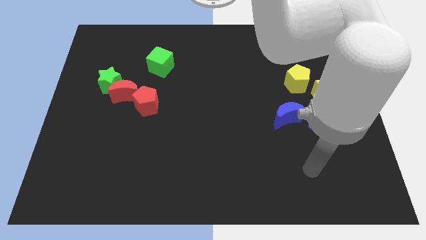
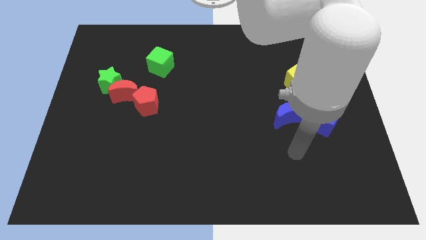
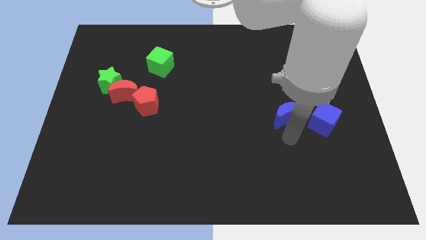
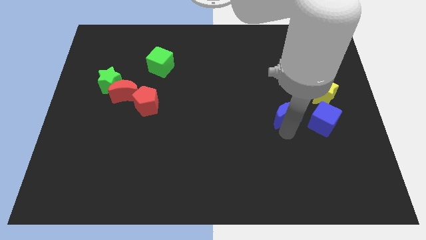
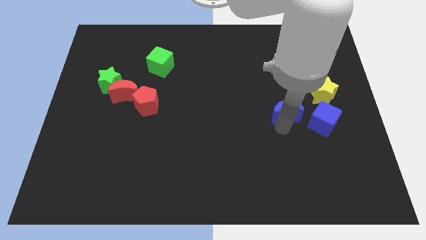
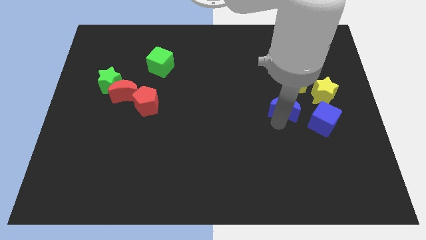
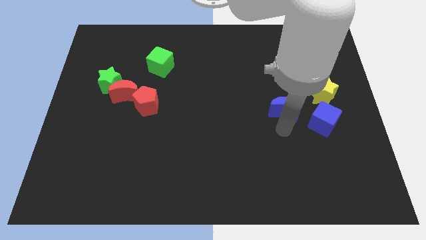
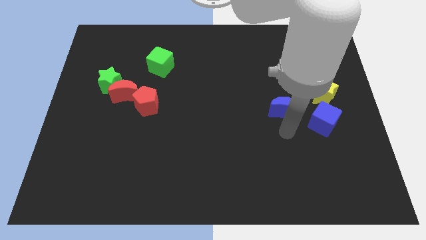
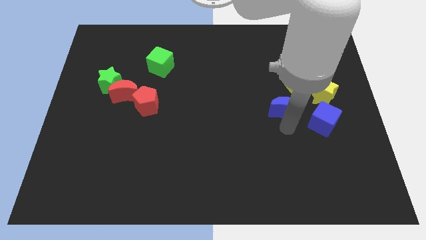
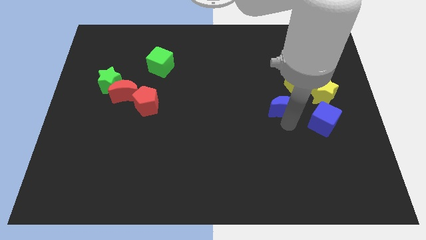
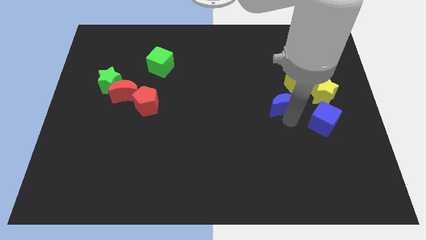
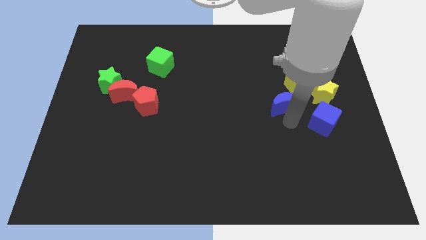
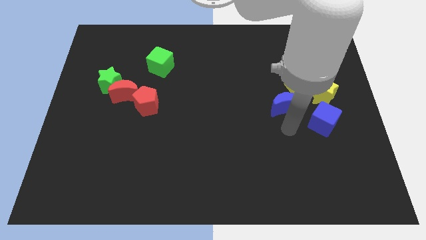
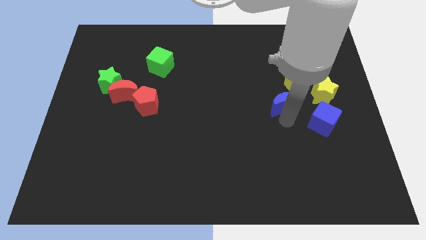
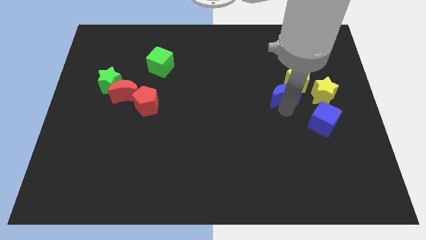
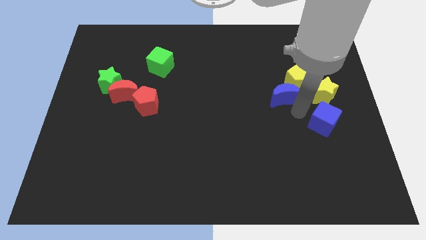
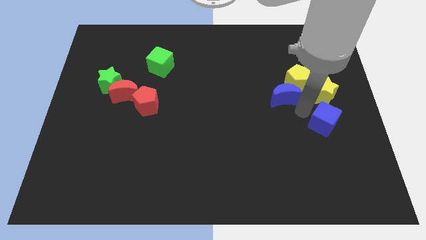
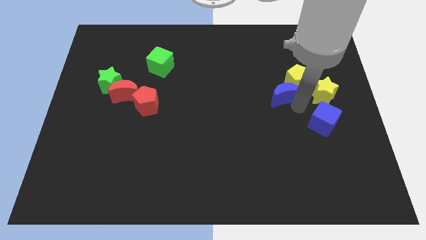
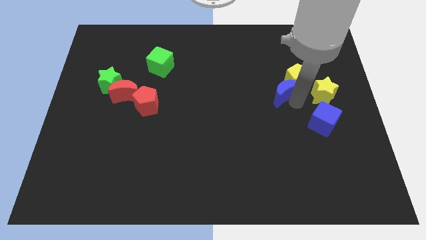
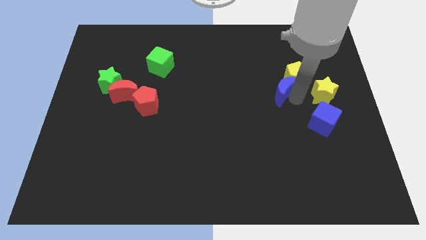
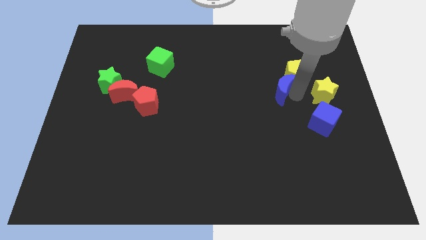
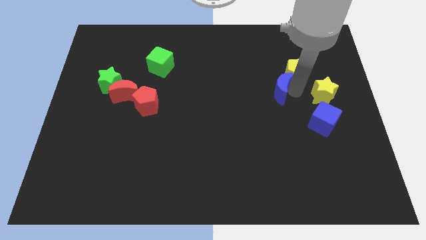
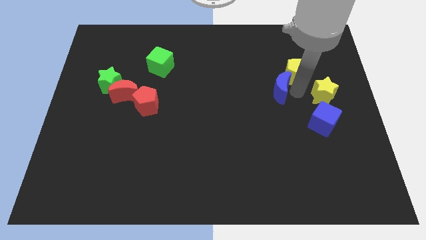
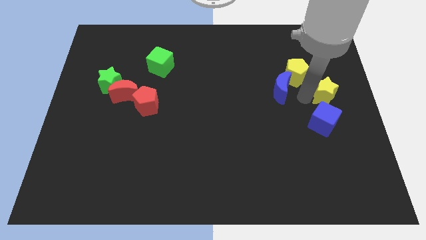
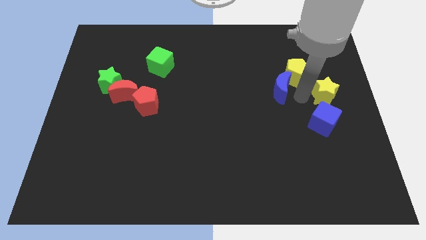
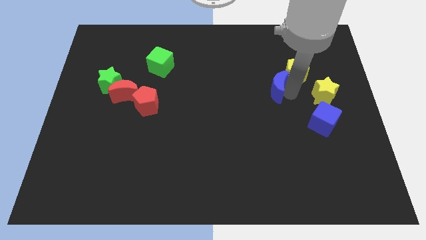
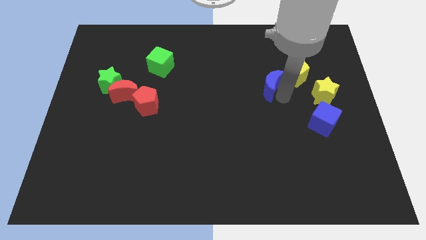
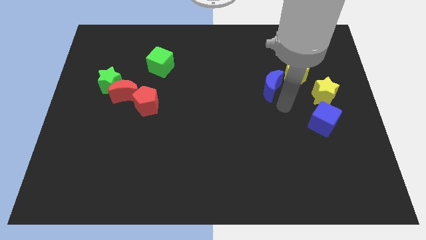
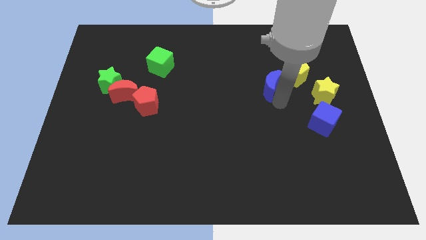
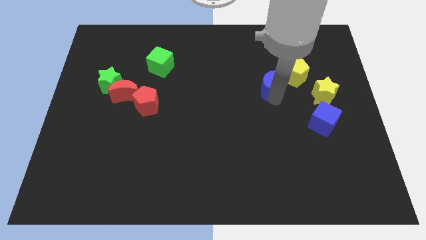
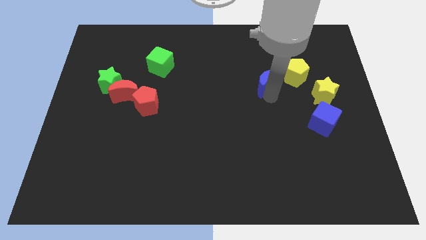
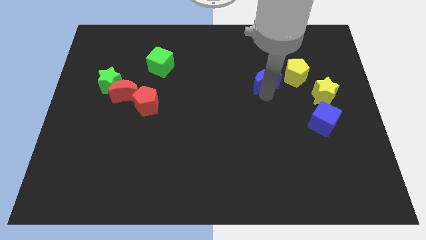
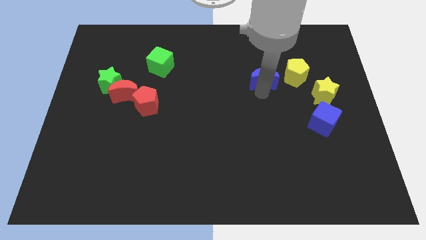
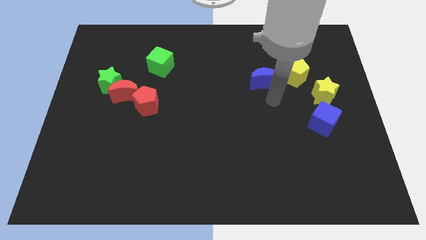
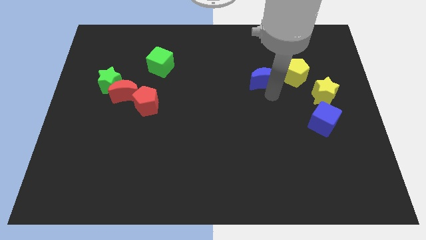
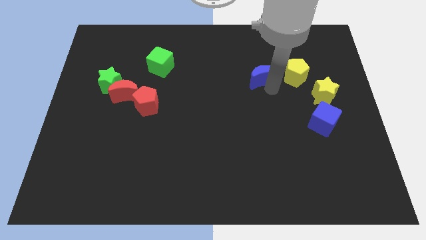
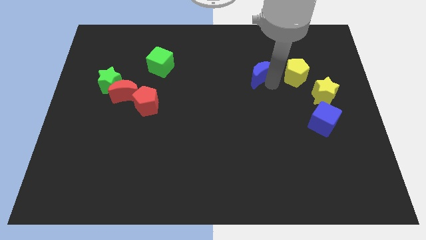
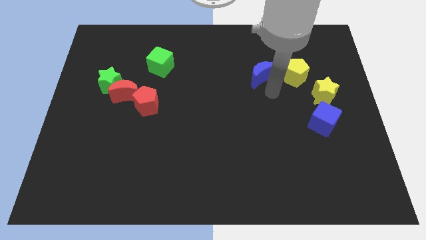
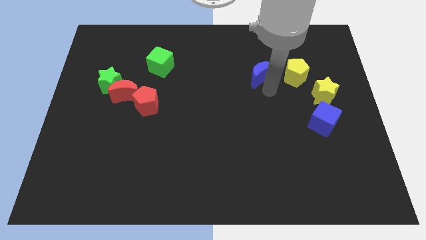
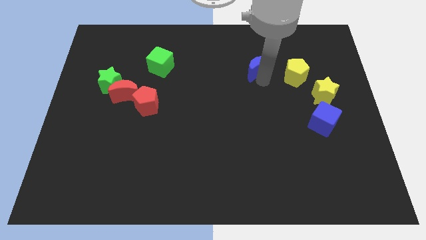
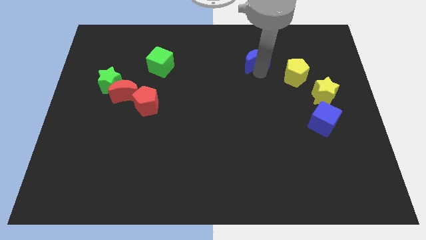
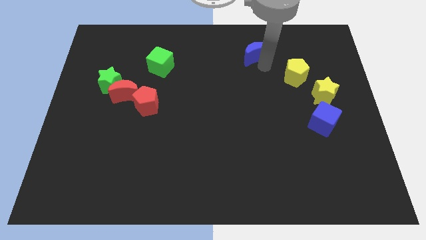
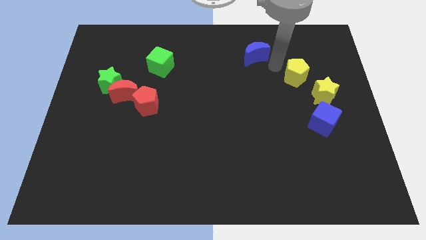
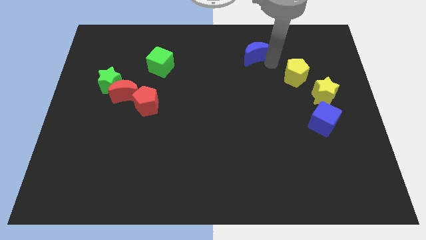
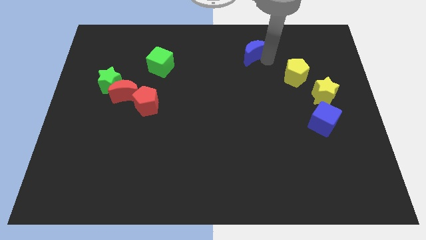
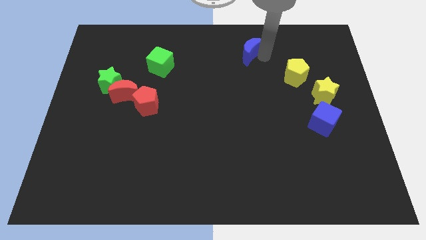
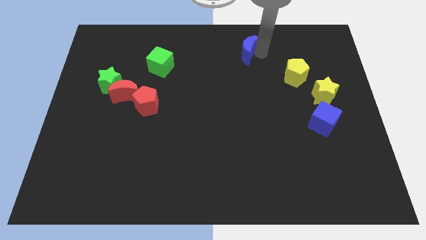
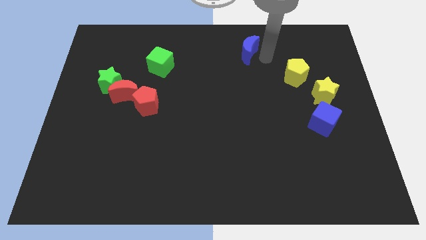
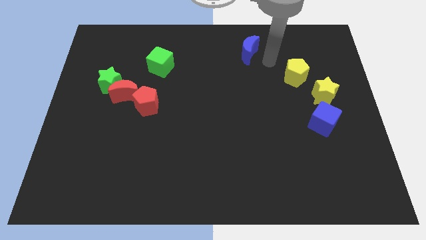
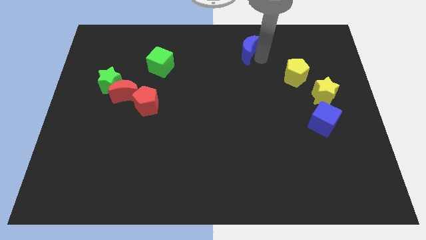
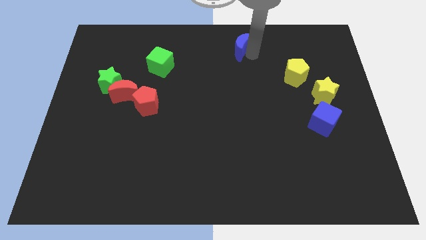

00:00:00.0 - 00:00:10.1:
put the blue moon to the towards your base

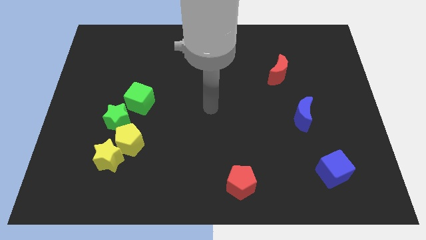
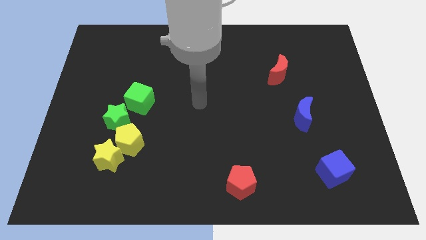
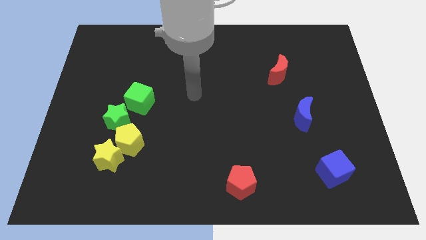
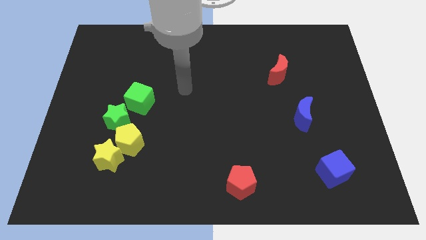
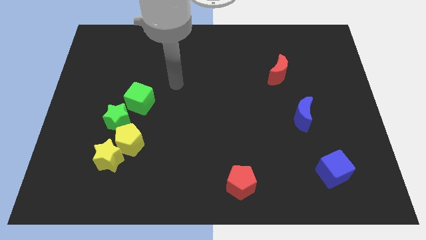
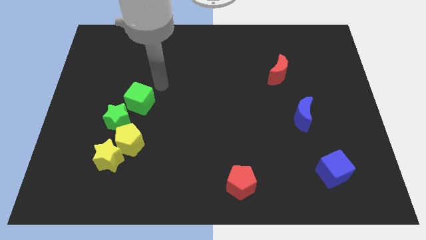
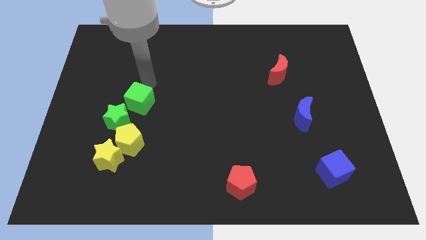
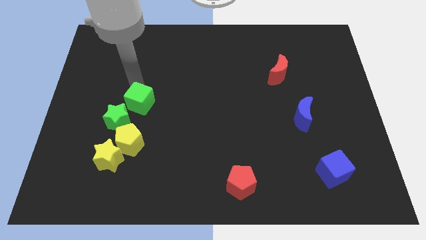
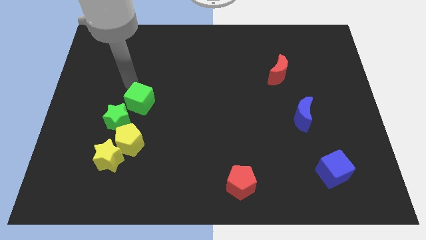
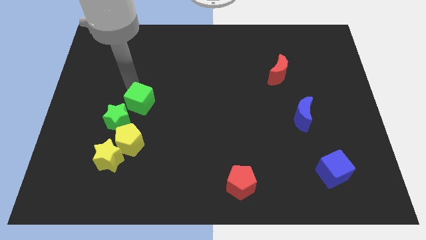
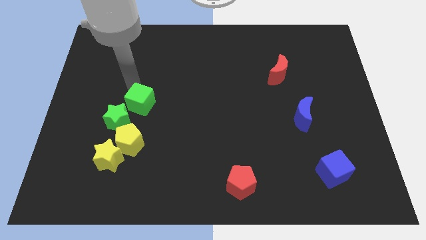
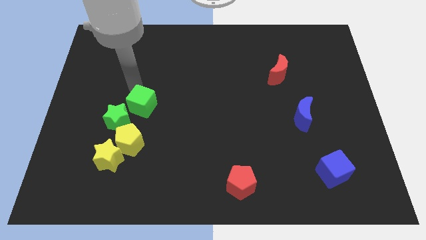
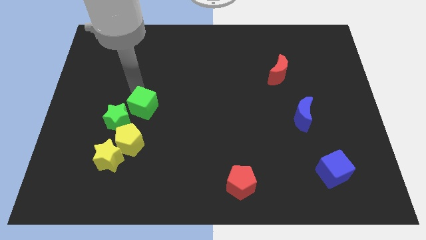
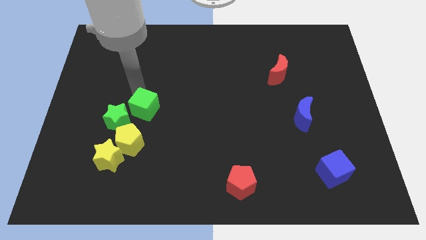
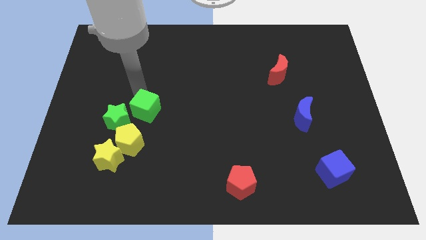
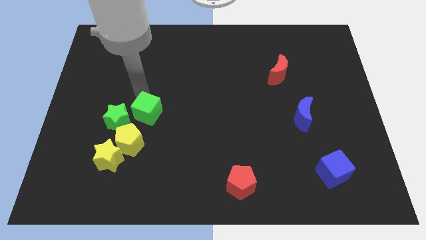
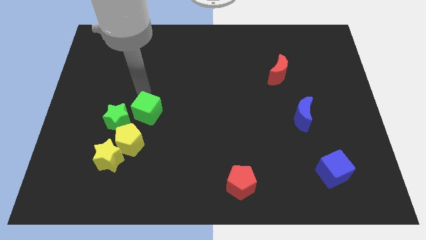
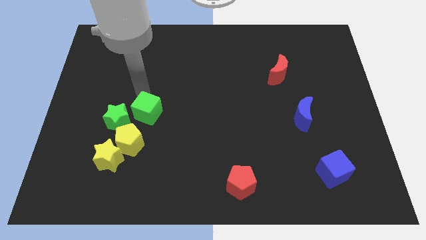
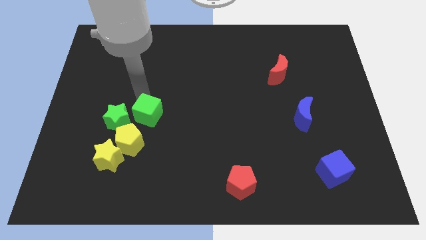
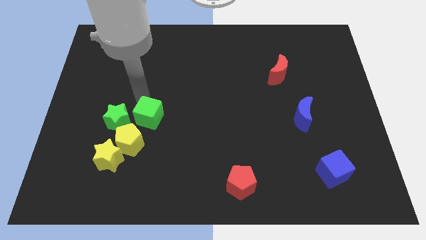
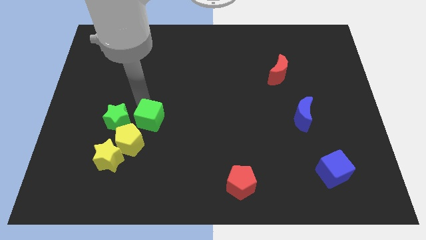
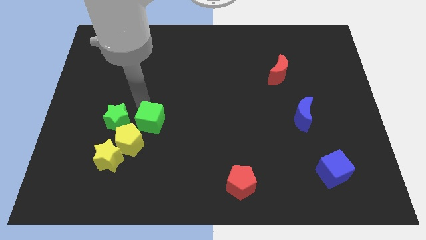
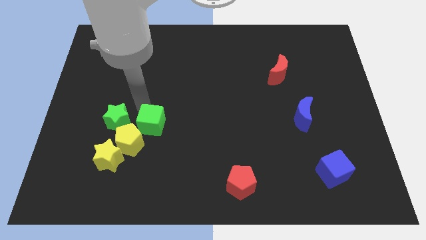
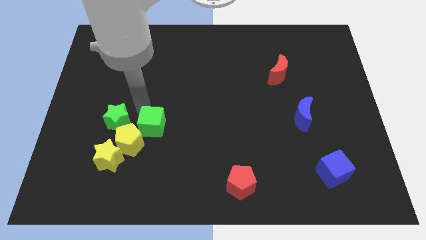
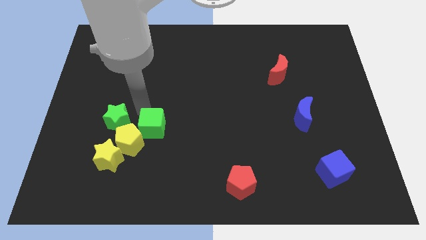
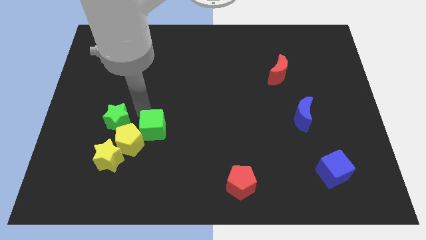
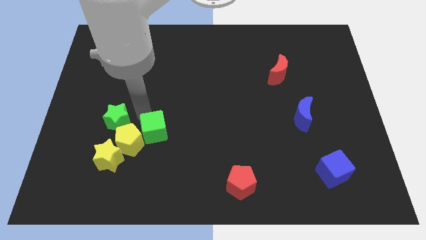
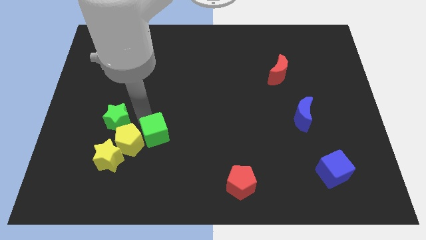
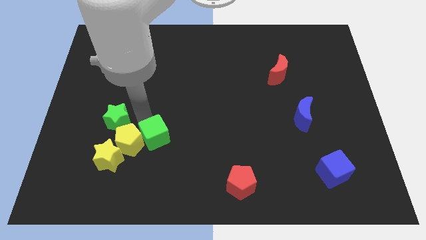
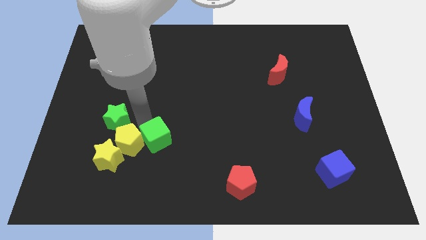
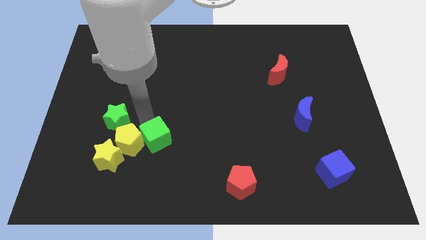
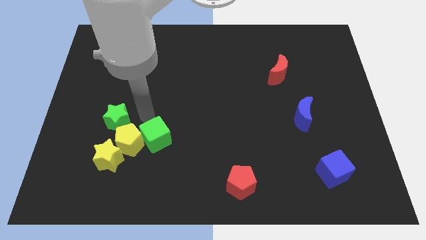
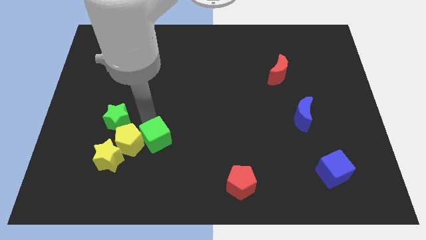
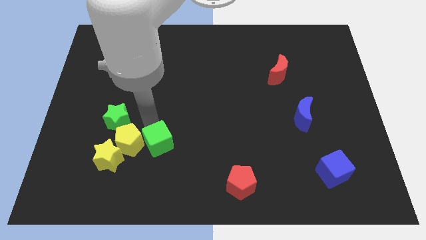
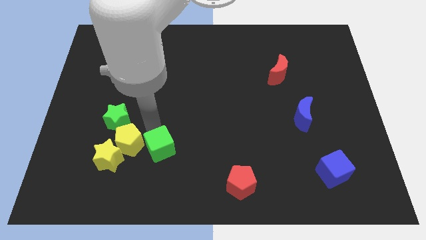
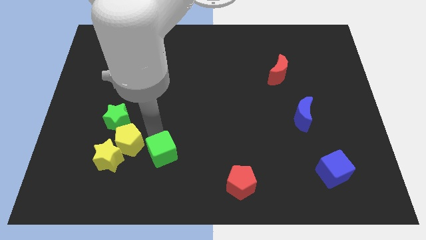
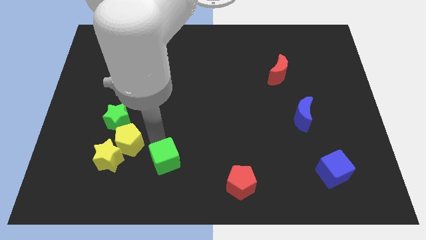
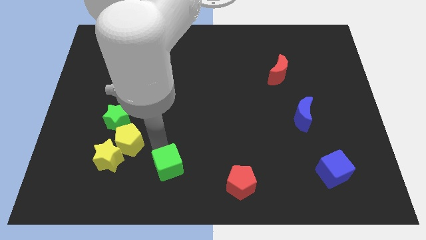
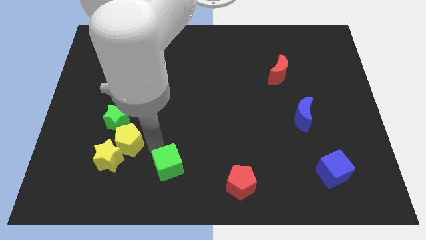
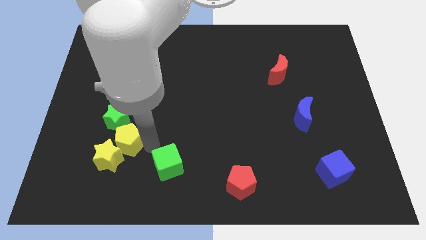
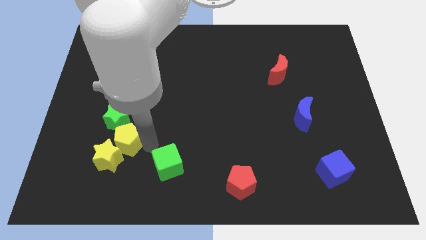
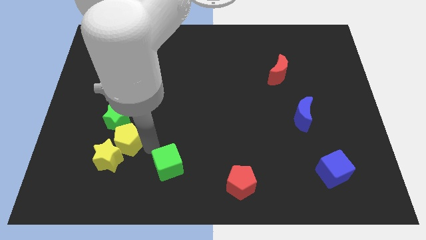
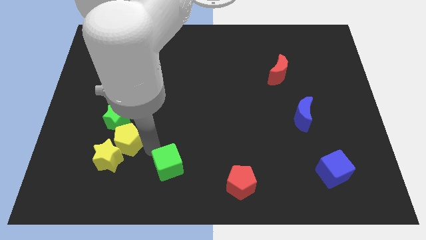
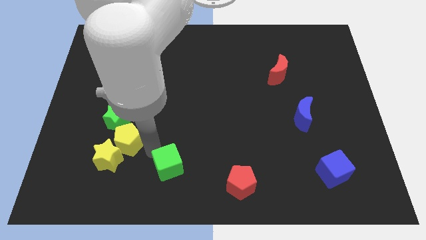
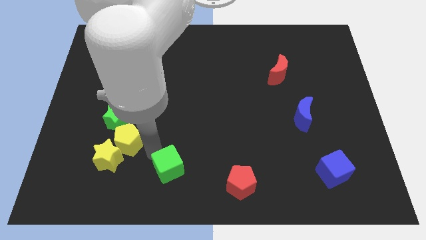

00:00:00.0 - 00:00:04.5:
move the green cube to the bottom
